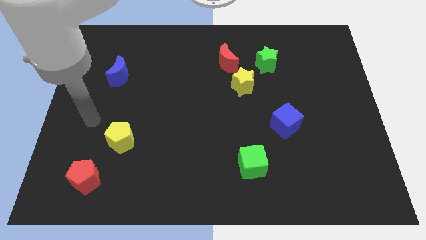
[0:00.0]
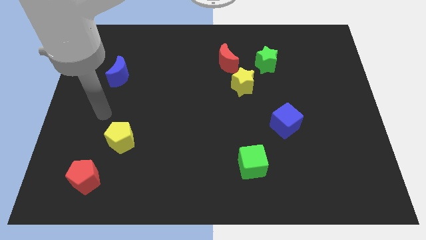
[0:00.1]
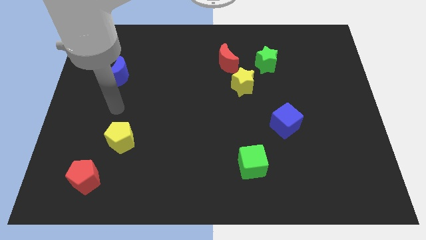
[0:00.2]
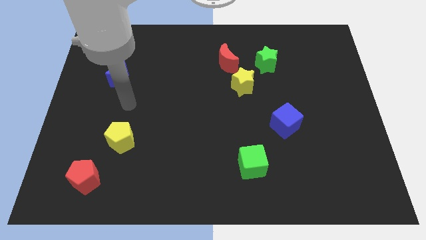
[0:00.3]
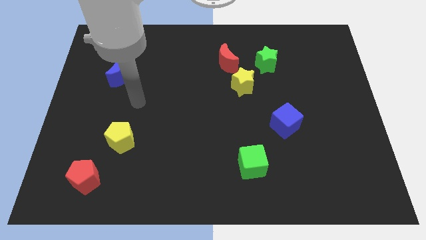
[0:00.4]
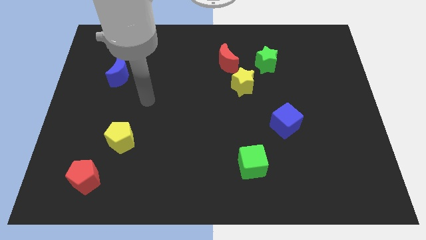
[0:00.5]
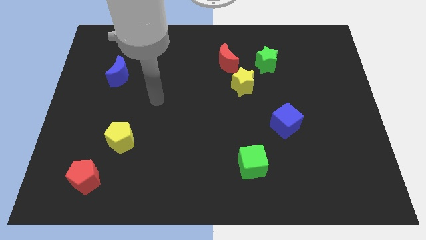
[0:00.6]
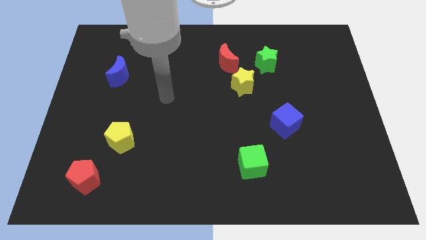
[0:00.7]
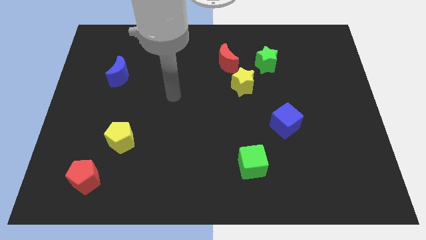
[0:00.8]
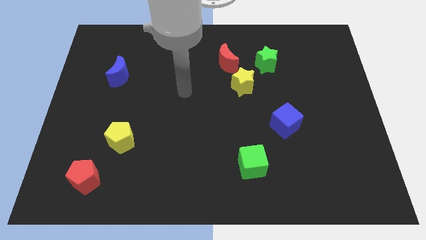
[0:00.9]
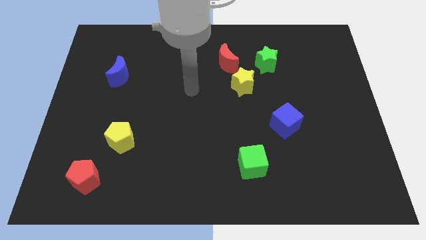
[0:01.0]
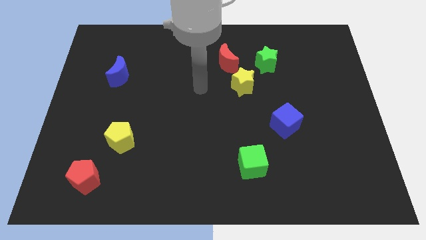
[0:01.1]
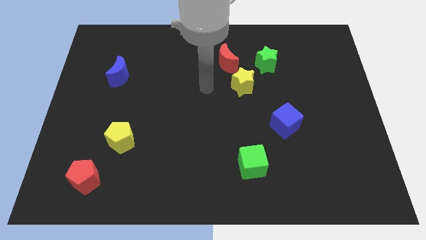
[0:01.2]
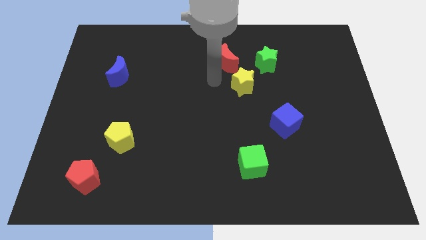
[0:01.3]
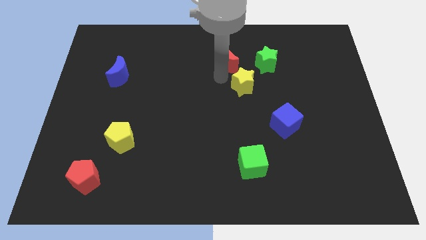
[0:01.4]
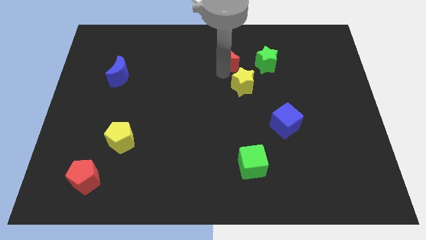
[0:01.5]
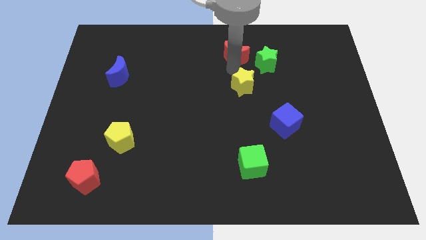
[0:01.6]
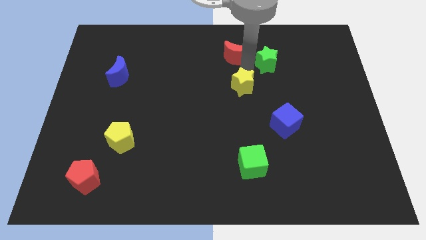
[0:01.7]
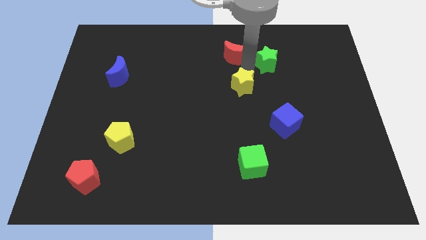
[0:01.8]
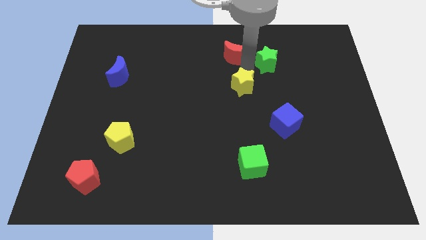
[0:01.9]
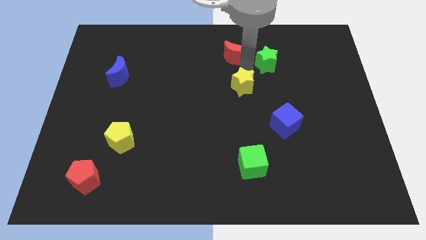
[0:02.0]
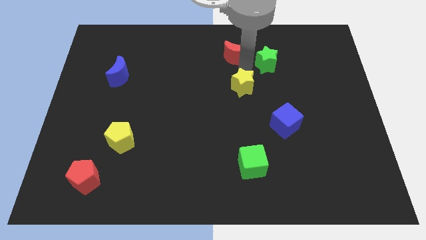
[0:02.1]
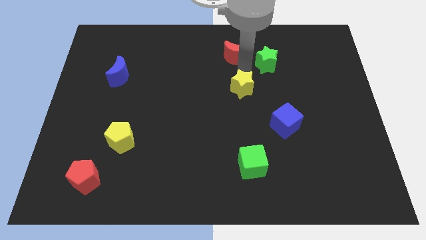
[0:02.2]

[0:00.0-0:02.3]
move the yellow star away from the red moon and green star

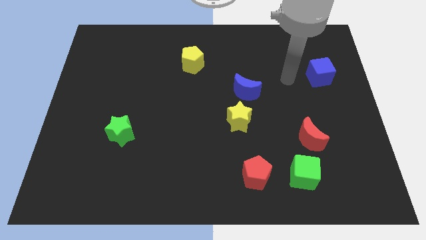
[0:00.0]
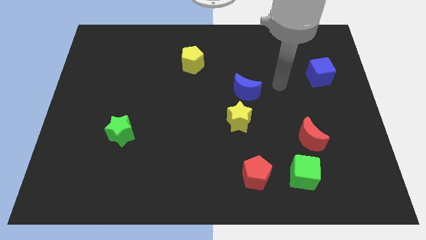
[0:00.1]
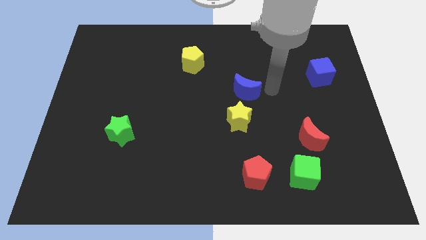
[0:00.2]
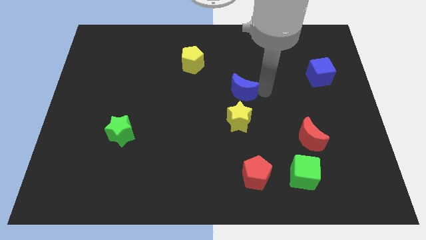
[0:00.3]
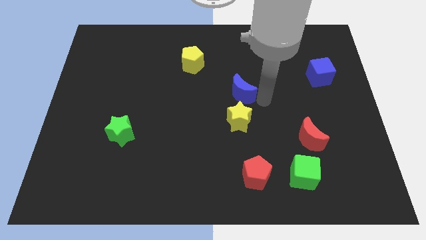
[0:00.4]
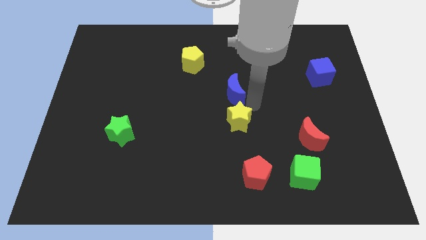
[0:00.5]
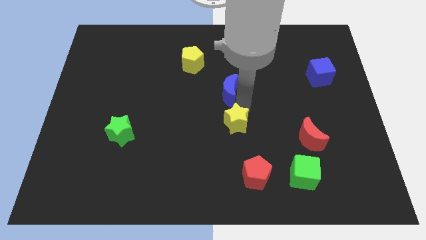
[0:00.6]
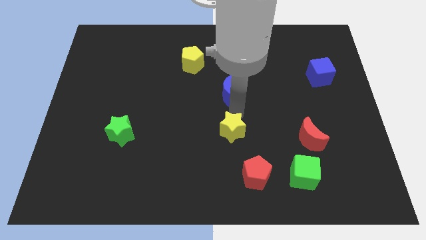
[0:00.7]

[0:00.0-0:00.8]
move the blue moon away from the yellow star

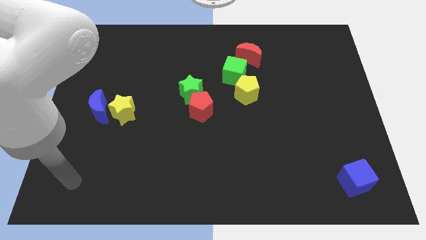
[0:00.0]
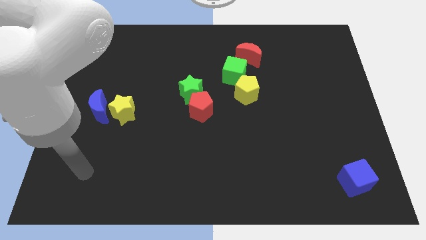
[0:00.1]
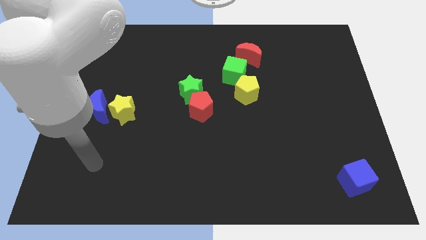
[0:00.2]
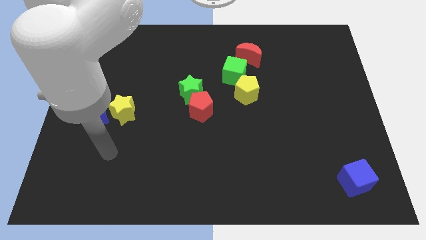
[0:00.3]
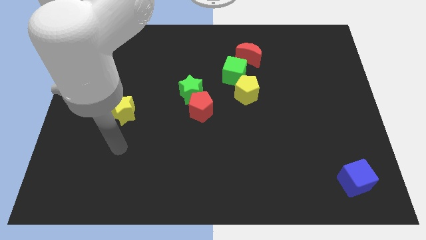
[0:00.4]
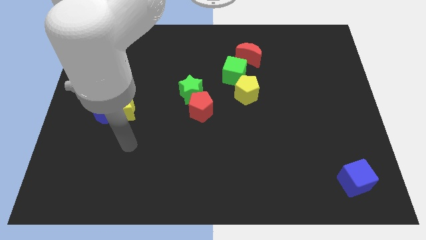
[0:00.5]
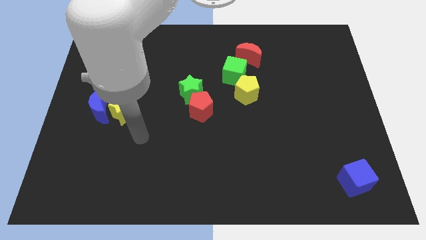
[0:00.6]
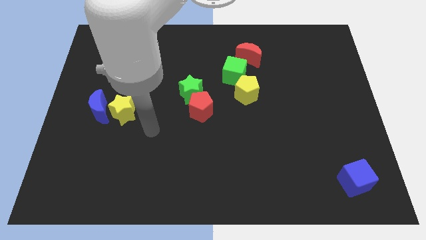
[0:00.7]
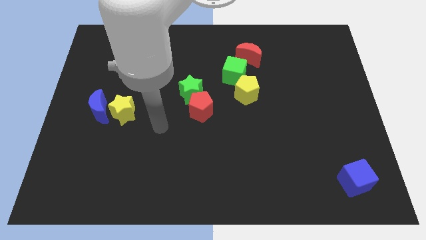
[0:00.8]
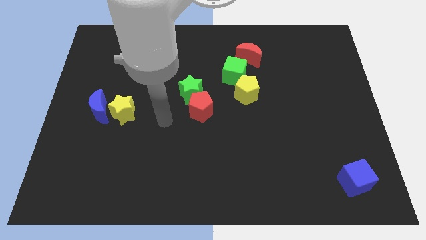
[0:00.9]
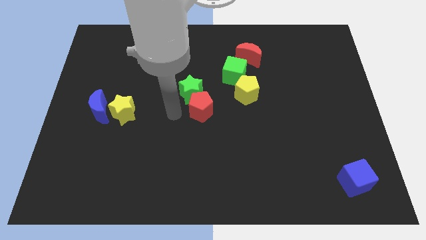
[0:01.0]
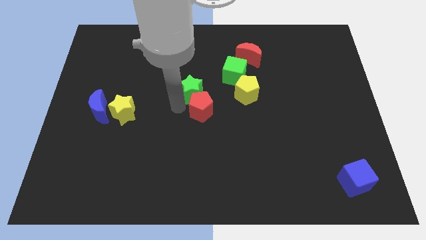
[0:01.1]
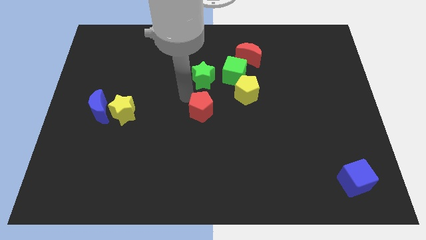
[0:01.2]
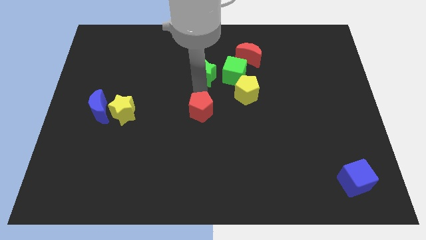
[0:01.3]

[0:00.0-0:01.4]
move the red pentagon away from the green star

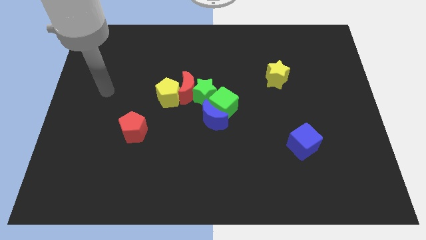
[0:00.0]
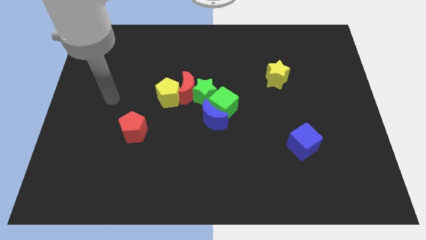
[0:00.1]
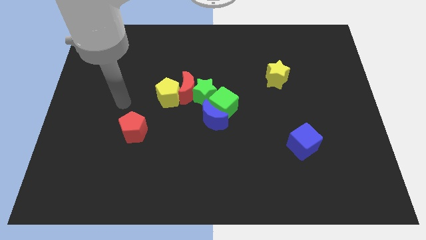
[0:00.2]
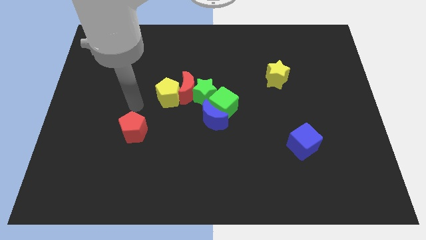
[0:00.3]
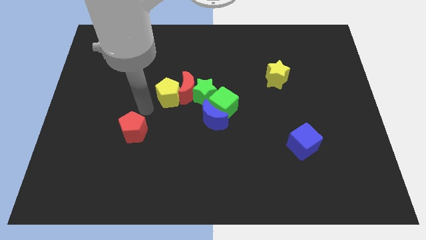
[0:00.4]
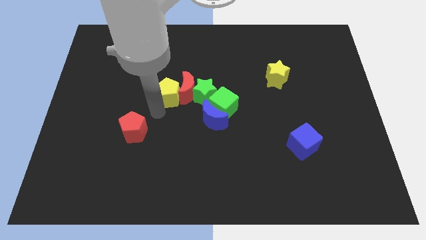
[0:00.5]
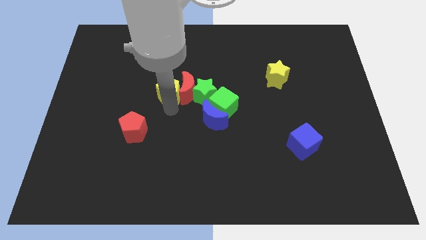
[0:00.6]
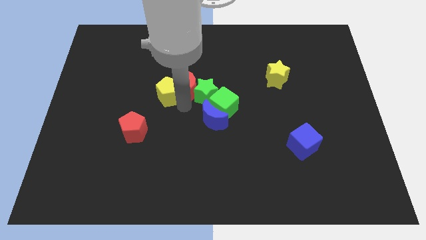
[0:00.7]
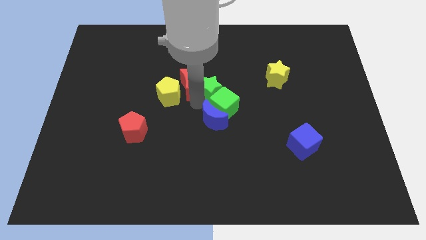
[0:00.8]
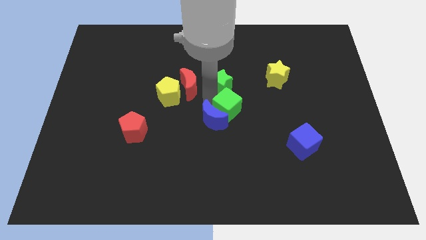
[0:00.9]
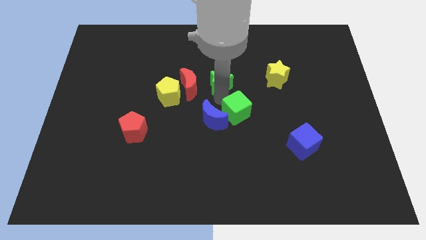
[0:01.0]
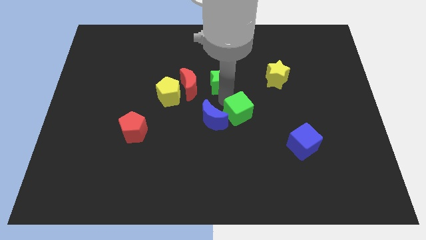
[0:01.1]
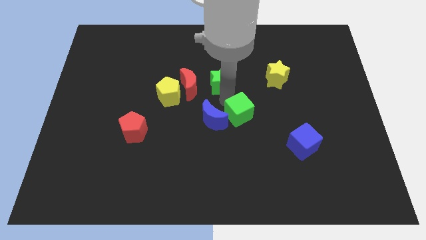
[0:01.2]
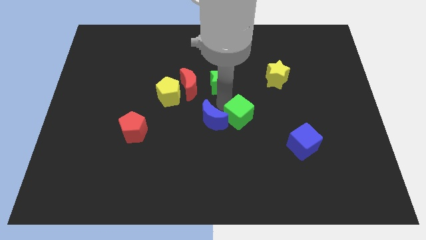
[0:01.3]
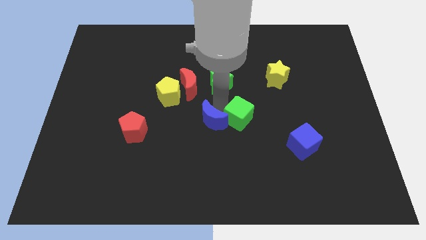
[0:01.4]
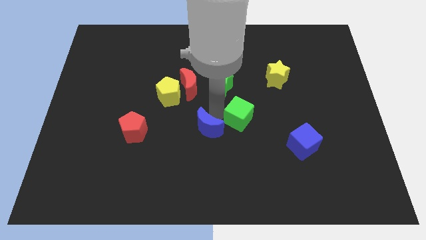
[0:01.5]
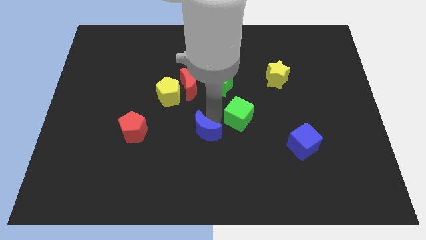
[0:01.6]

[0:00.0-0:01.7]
separate the blue moon from the green cube and green star

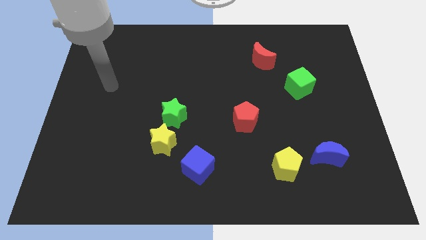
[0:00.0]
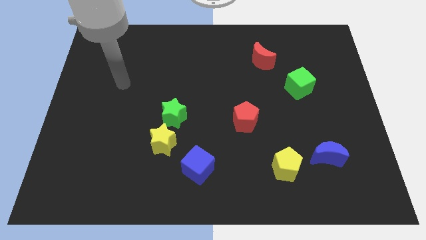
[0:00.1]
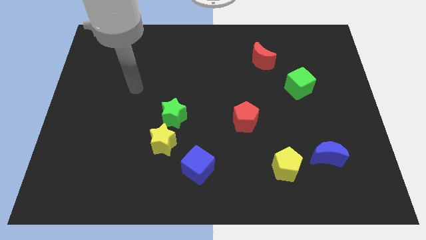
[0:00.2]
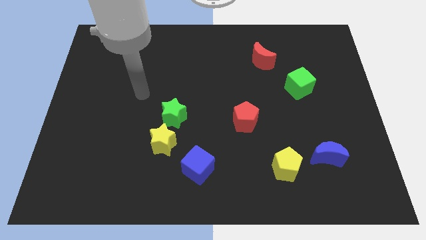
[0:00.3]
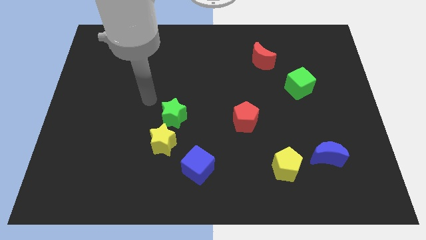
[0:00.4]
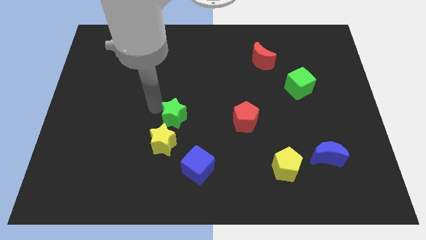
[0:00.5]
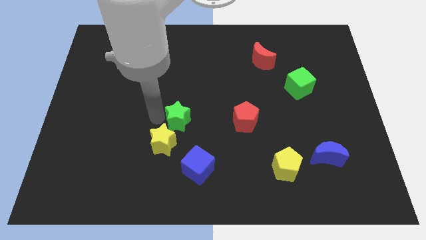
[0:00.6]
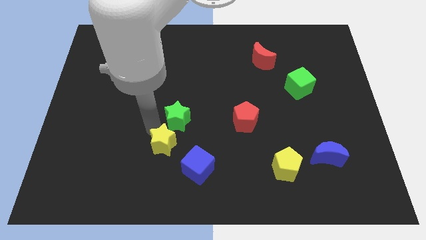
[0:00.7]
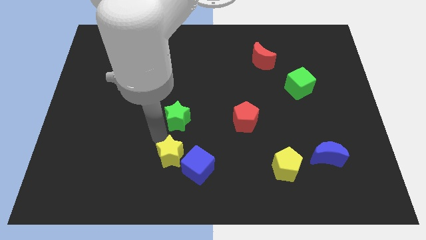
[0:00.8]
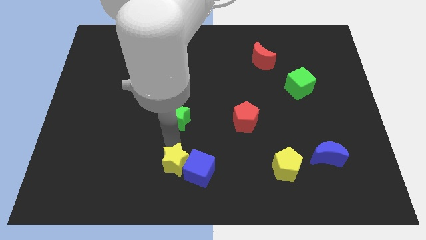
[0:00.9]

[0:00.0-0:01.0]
separate the green star from the yellow star

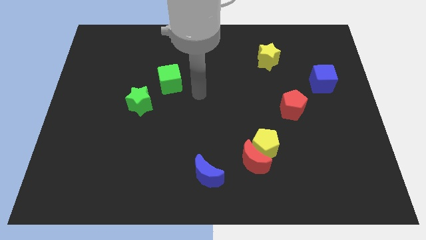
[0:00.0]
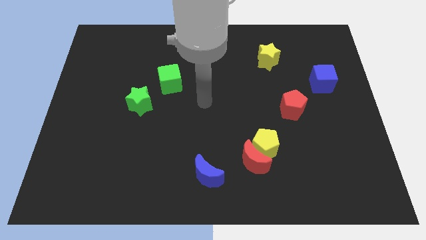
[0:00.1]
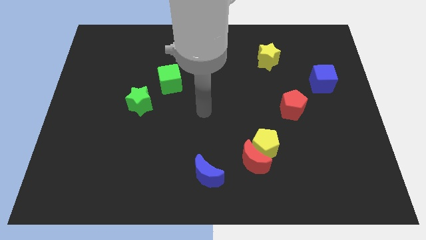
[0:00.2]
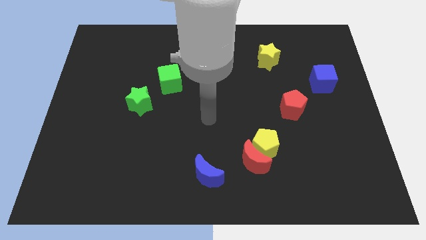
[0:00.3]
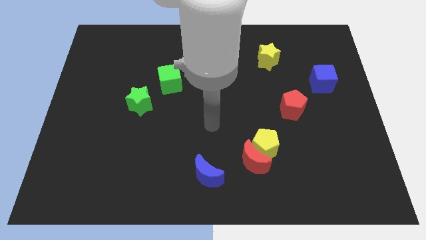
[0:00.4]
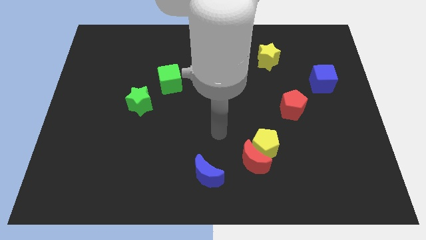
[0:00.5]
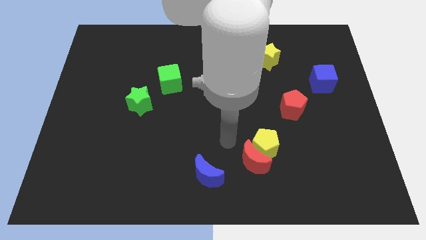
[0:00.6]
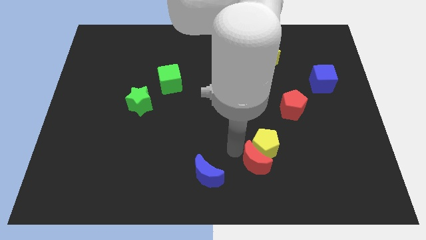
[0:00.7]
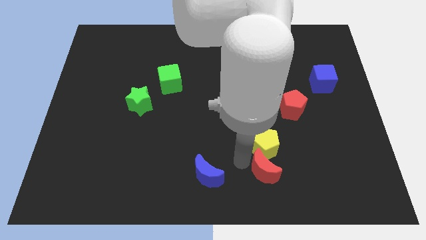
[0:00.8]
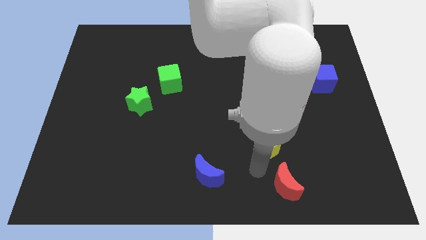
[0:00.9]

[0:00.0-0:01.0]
move the yellow pentagon away from the red moon

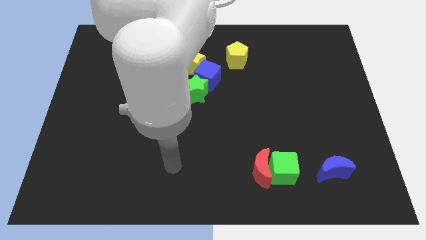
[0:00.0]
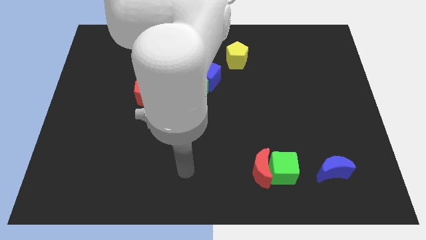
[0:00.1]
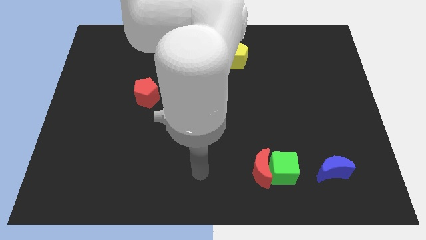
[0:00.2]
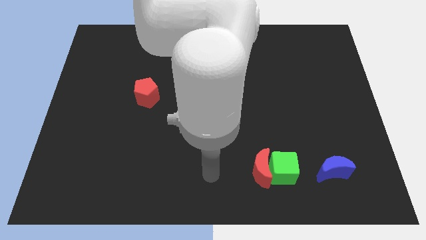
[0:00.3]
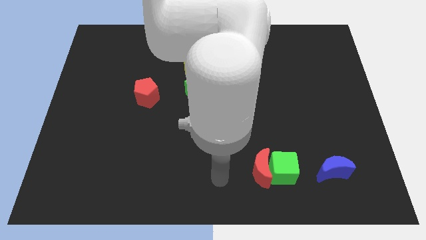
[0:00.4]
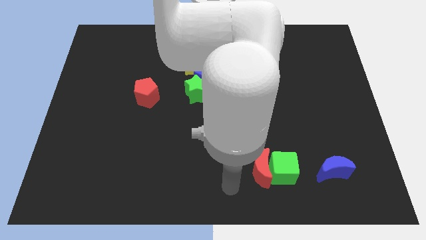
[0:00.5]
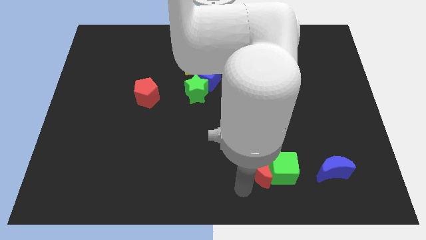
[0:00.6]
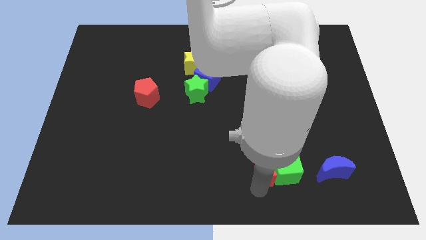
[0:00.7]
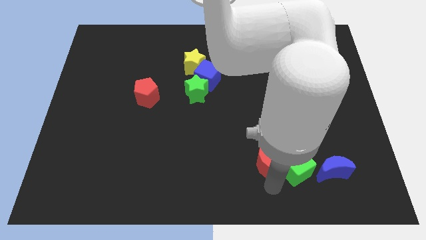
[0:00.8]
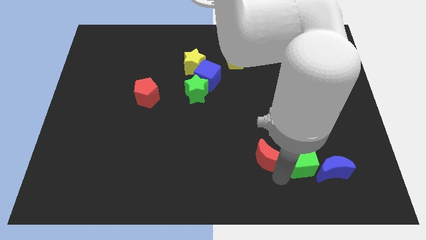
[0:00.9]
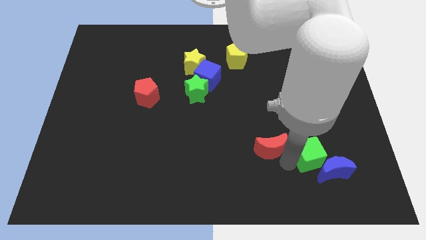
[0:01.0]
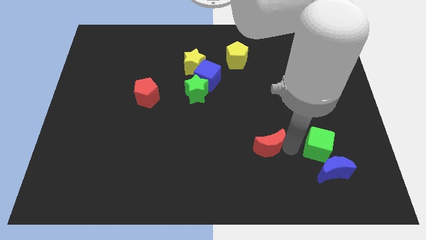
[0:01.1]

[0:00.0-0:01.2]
move the red moon away from the green cube
